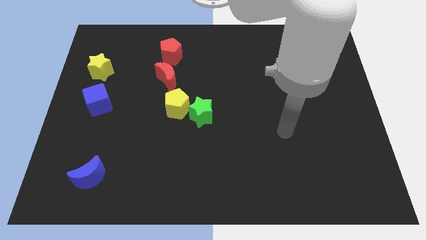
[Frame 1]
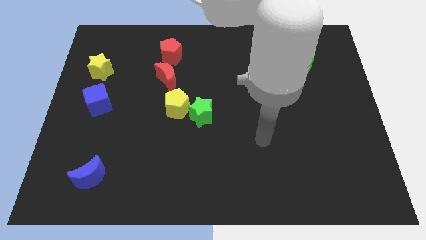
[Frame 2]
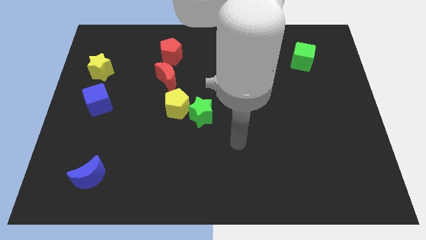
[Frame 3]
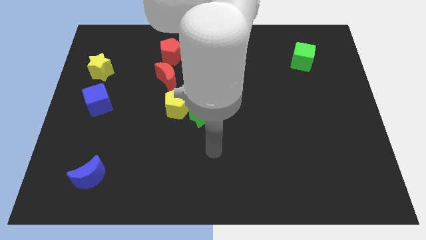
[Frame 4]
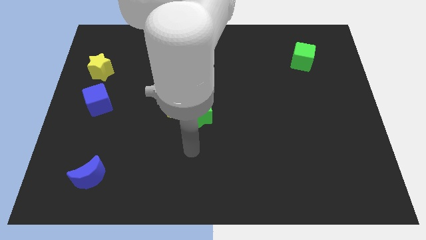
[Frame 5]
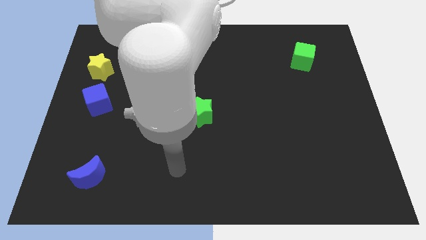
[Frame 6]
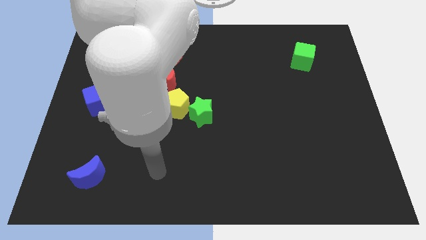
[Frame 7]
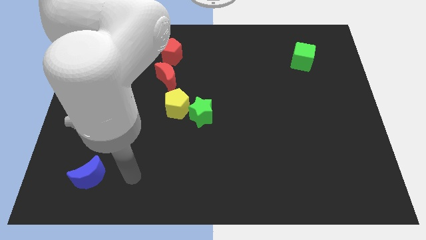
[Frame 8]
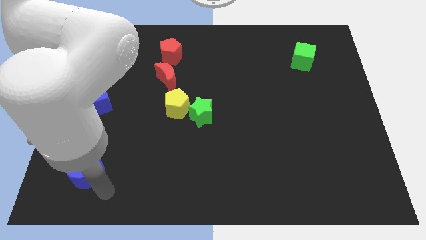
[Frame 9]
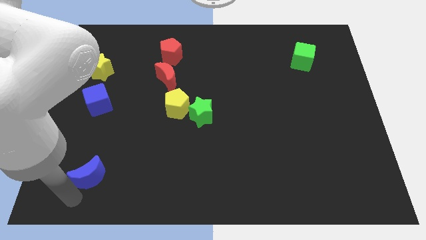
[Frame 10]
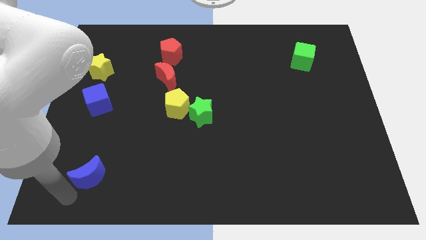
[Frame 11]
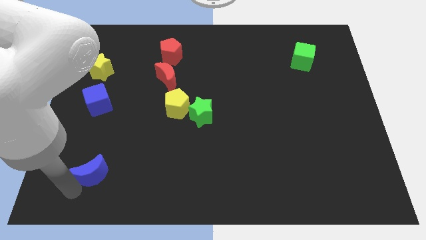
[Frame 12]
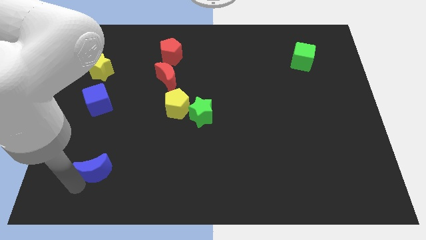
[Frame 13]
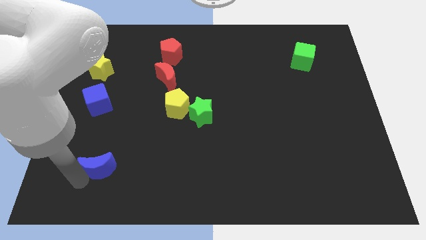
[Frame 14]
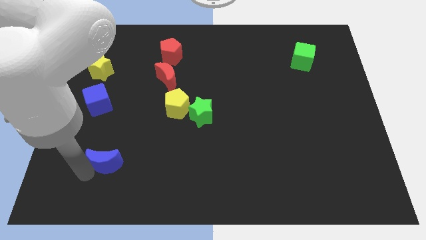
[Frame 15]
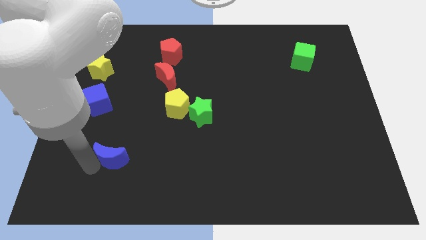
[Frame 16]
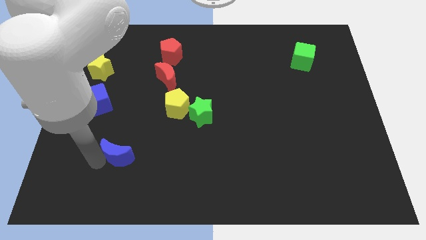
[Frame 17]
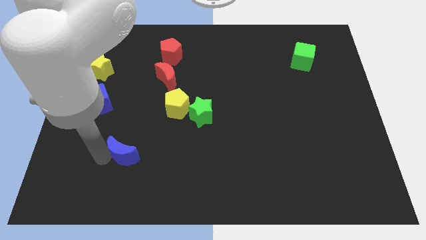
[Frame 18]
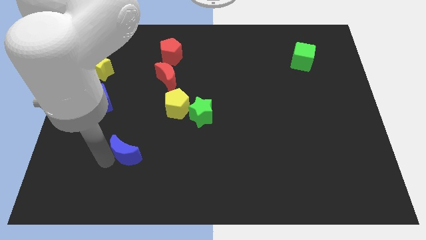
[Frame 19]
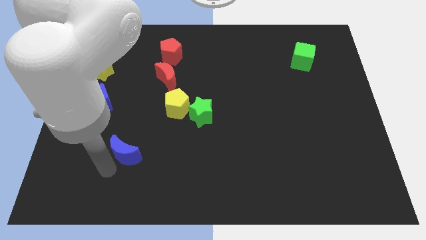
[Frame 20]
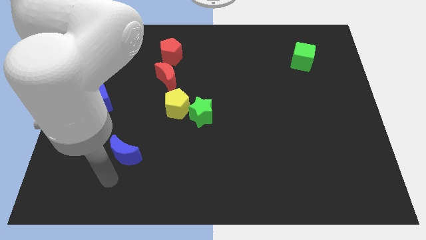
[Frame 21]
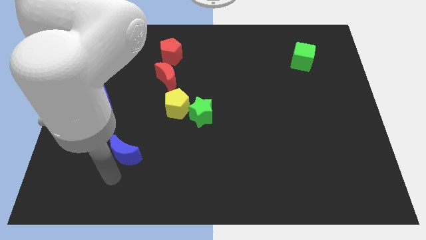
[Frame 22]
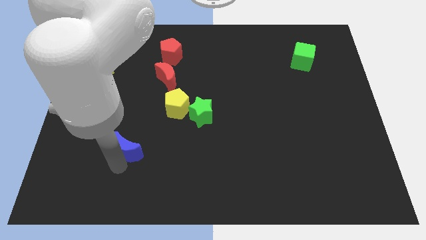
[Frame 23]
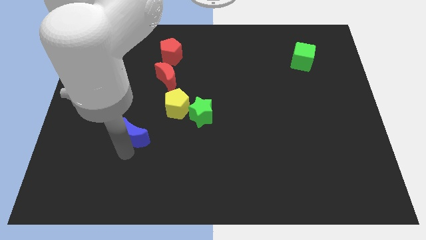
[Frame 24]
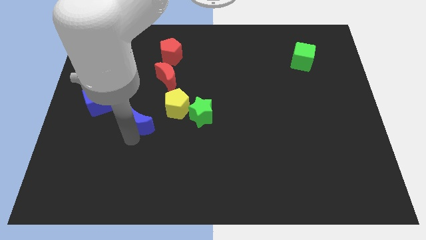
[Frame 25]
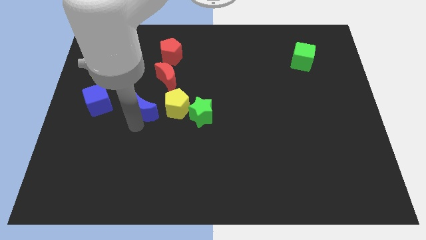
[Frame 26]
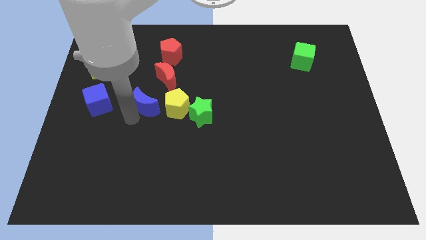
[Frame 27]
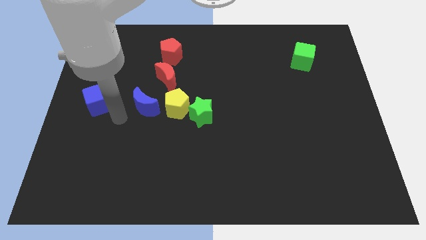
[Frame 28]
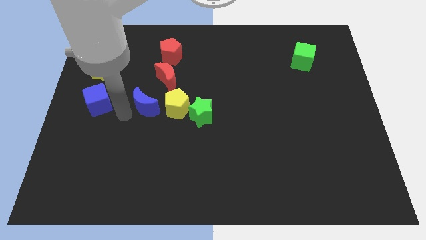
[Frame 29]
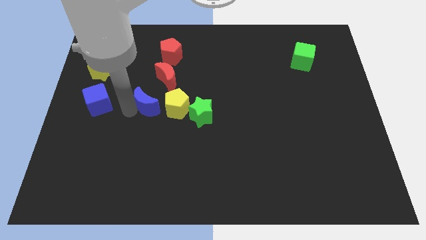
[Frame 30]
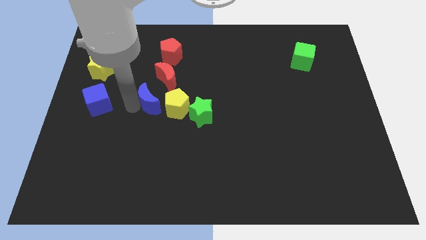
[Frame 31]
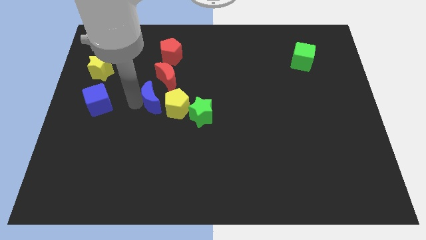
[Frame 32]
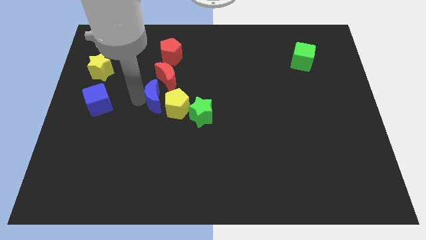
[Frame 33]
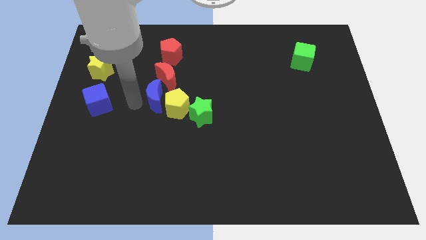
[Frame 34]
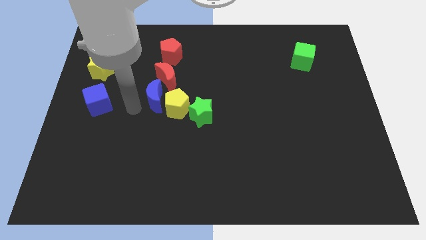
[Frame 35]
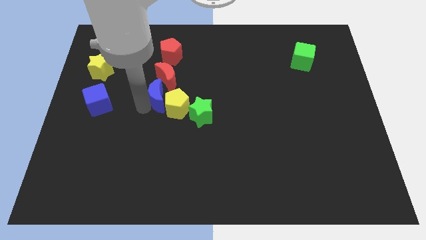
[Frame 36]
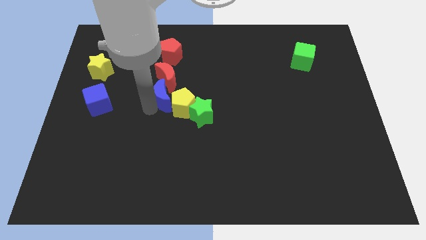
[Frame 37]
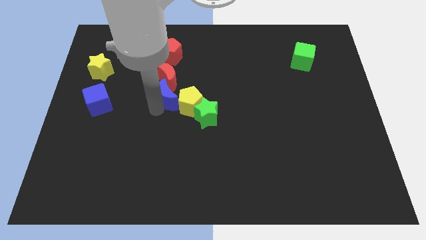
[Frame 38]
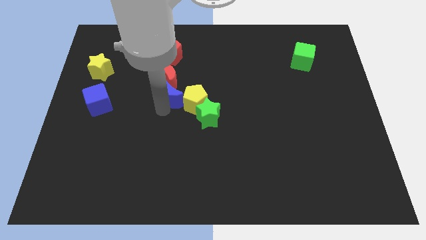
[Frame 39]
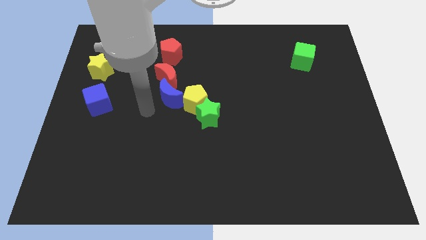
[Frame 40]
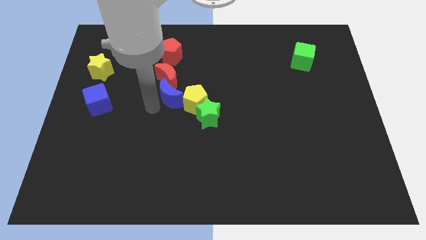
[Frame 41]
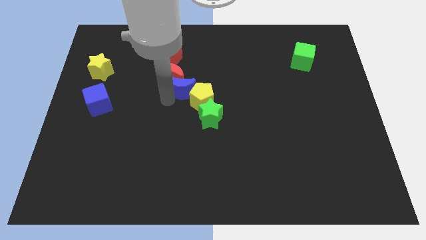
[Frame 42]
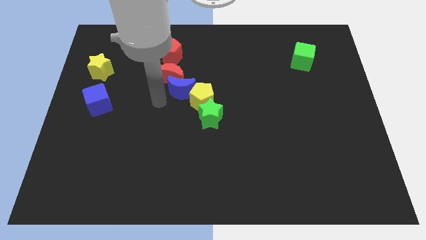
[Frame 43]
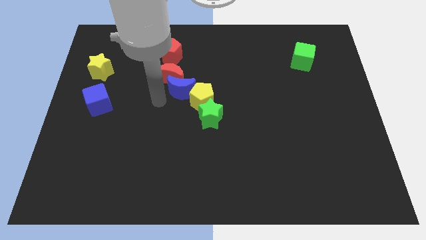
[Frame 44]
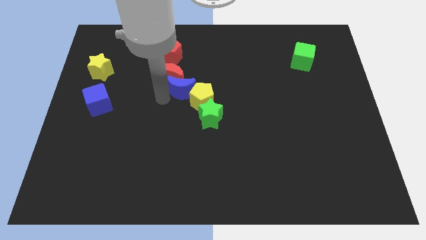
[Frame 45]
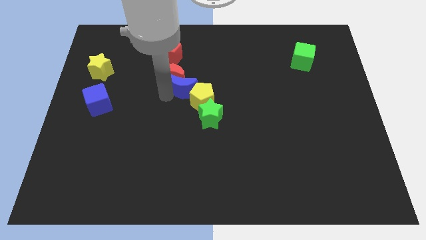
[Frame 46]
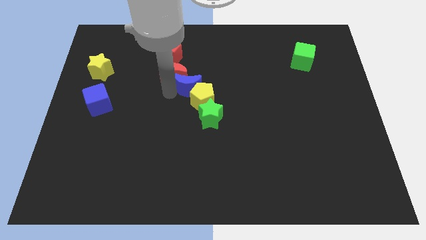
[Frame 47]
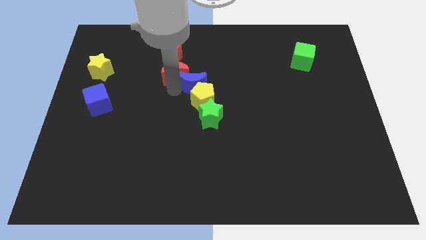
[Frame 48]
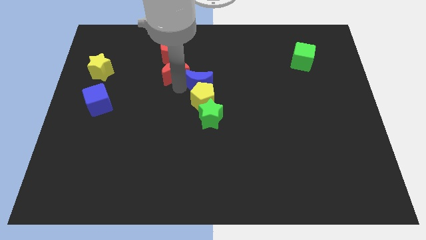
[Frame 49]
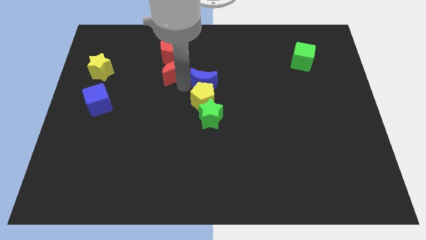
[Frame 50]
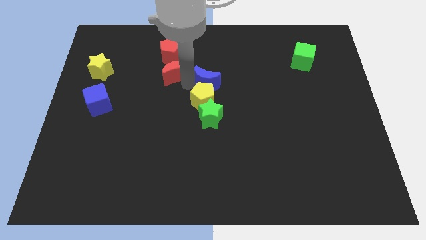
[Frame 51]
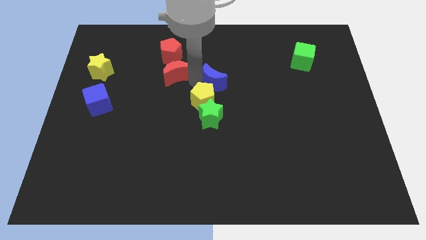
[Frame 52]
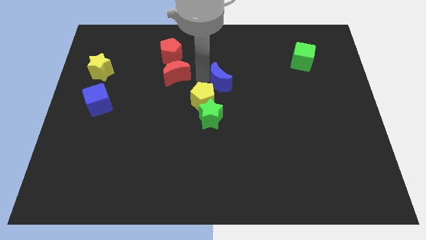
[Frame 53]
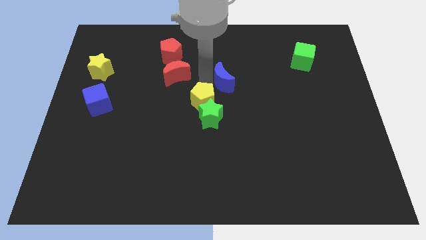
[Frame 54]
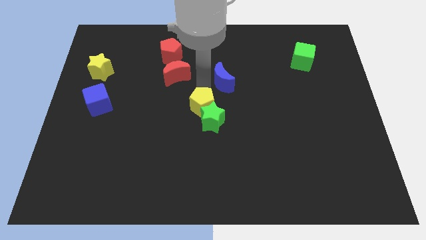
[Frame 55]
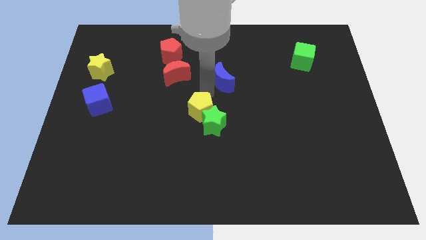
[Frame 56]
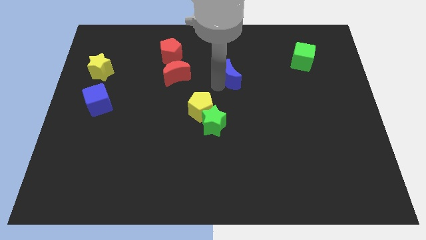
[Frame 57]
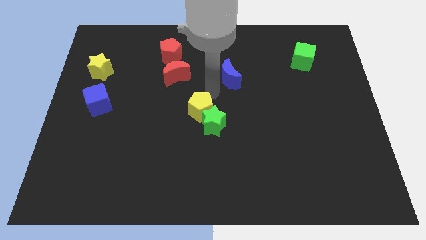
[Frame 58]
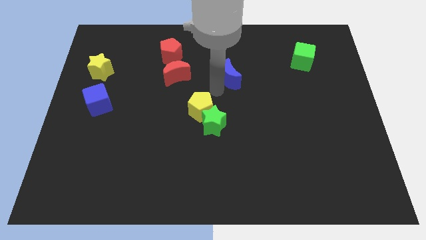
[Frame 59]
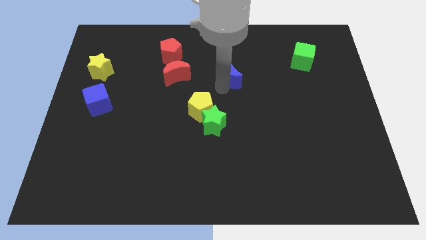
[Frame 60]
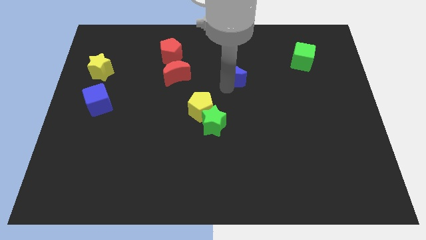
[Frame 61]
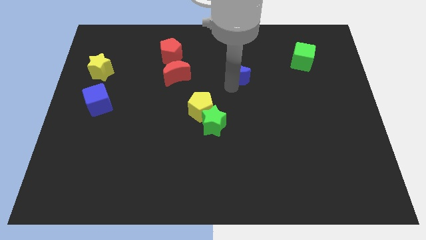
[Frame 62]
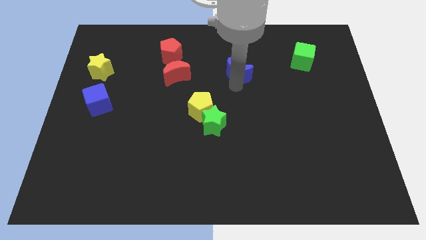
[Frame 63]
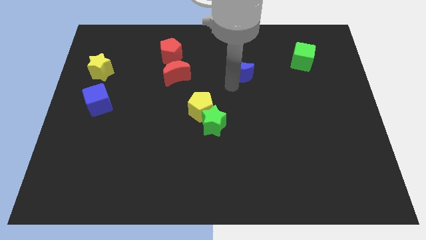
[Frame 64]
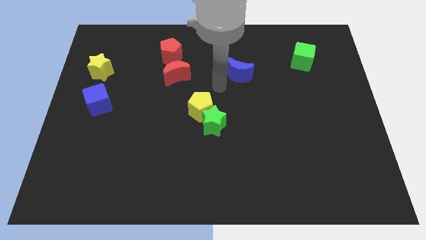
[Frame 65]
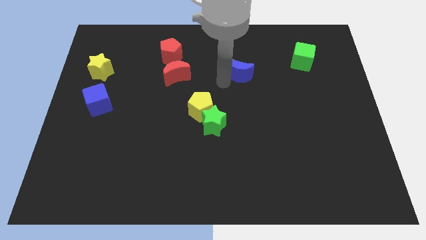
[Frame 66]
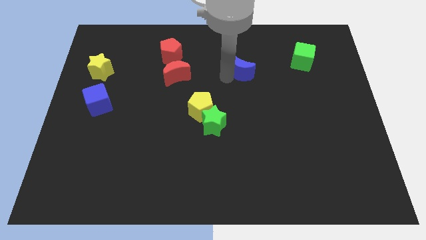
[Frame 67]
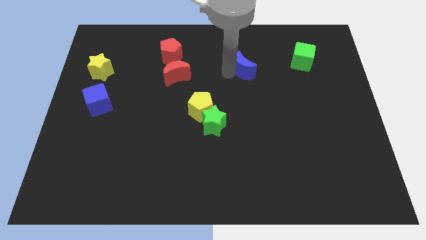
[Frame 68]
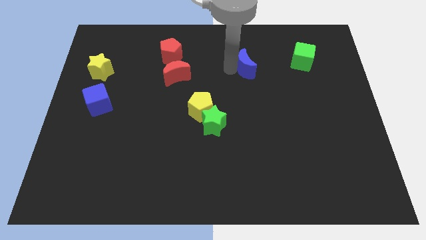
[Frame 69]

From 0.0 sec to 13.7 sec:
put the blue moon just left of the green cube

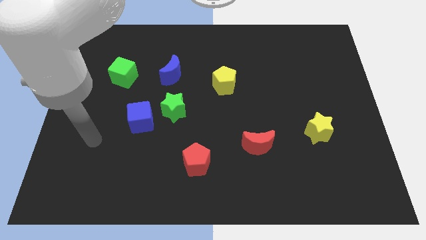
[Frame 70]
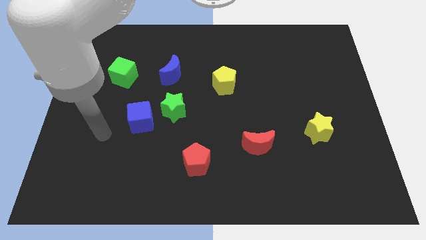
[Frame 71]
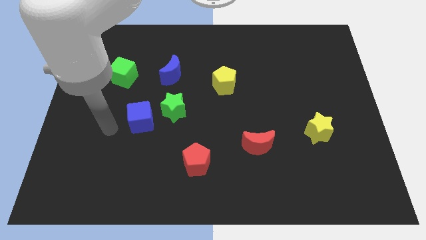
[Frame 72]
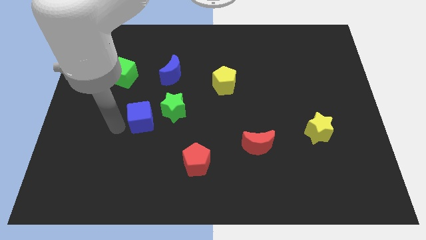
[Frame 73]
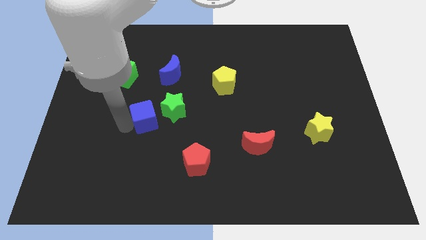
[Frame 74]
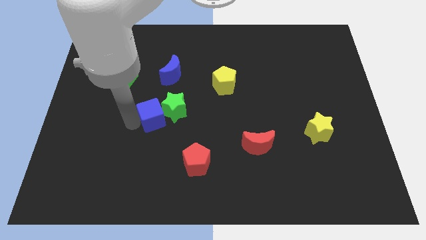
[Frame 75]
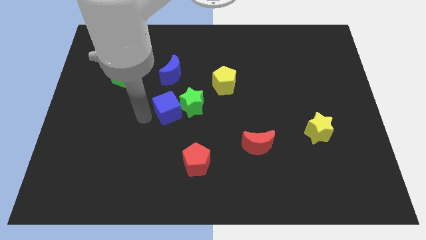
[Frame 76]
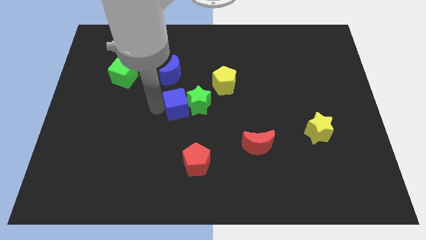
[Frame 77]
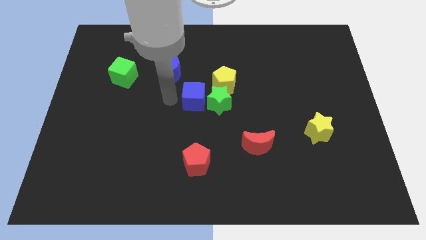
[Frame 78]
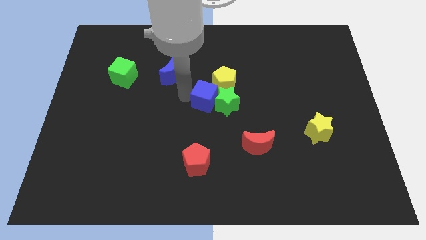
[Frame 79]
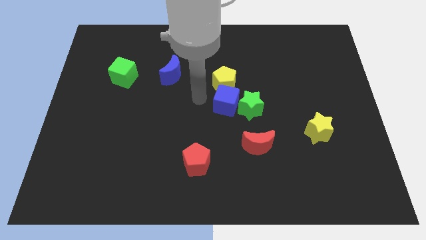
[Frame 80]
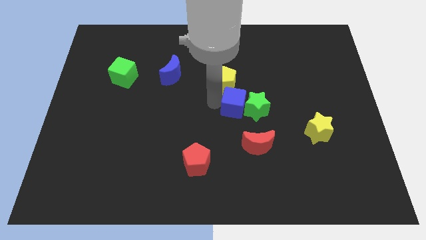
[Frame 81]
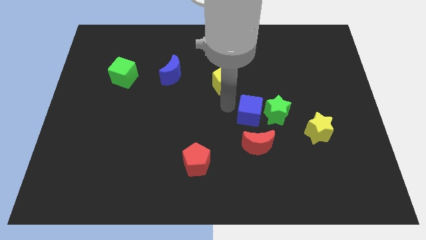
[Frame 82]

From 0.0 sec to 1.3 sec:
slide the green star to the top left side of the yellow star
